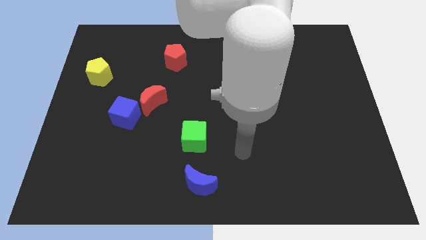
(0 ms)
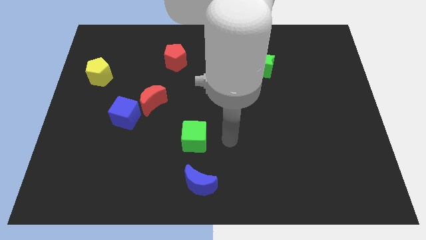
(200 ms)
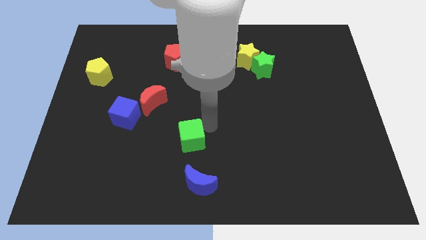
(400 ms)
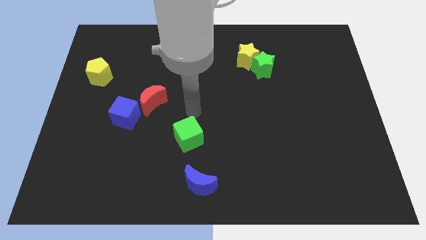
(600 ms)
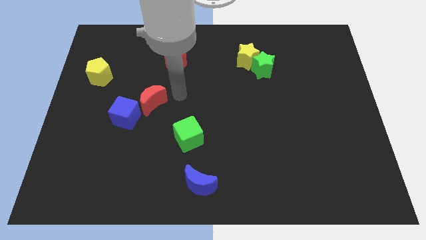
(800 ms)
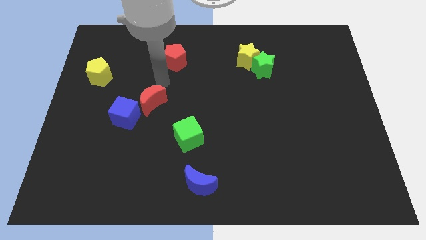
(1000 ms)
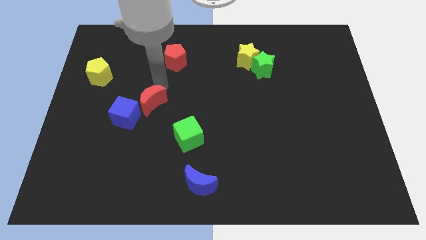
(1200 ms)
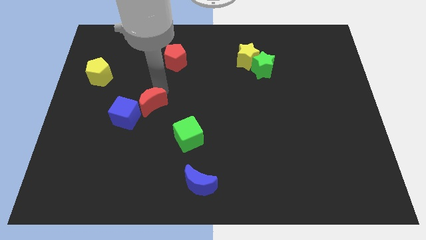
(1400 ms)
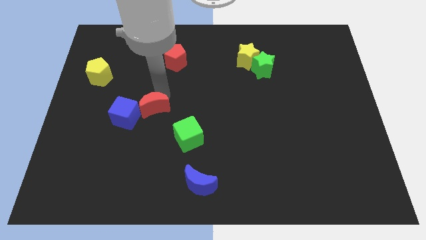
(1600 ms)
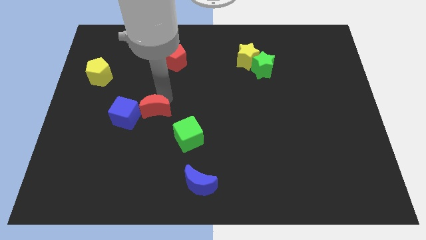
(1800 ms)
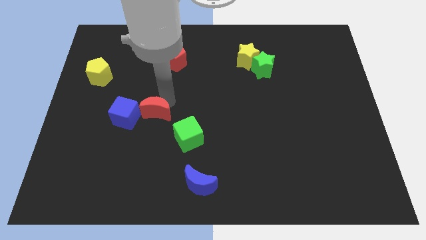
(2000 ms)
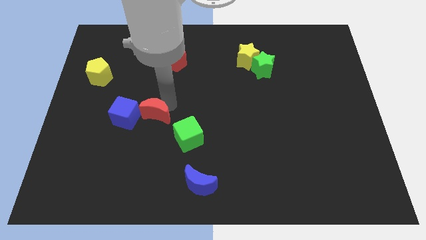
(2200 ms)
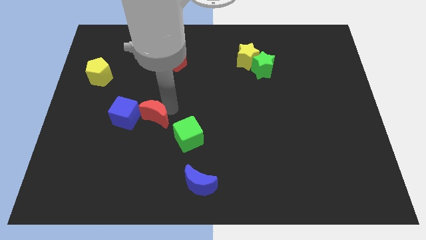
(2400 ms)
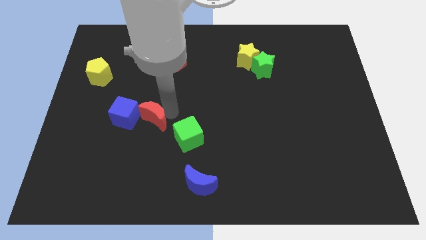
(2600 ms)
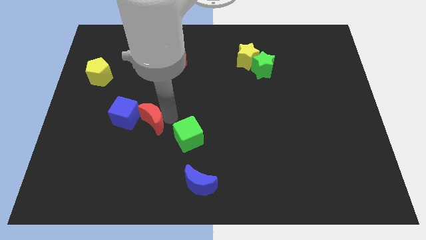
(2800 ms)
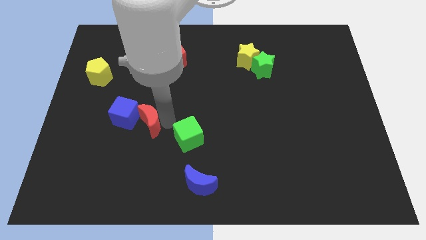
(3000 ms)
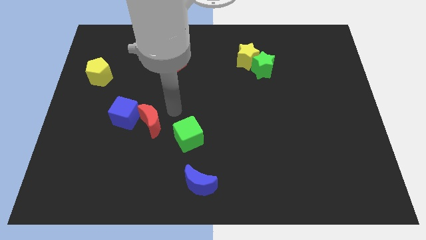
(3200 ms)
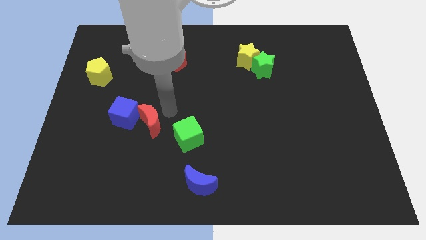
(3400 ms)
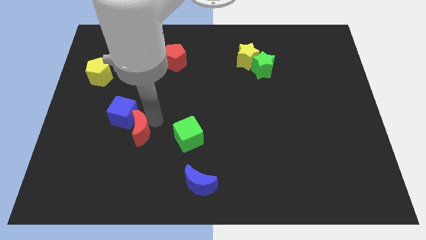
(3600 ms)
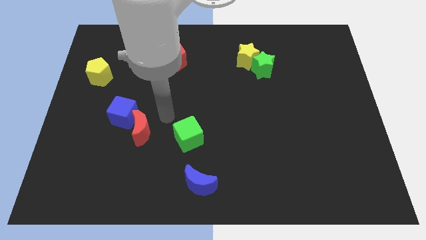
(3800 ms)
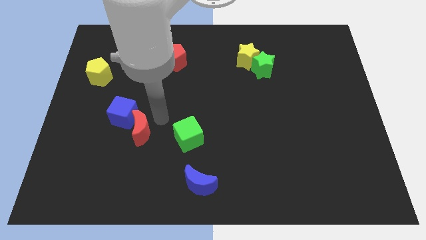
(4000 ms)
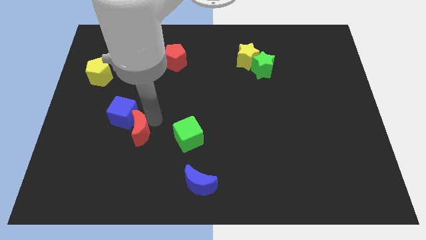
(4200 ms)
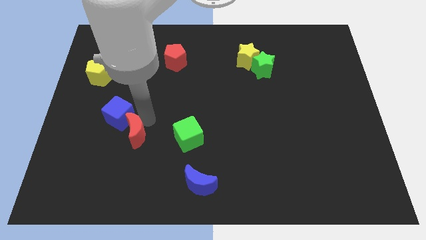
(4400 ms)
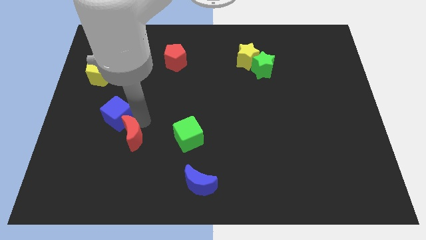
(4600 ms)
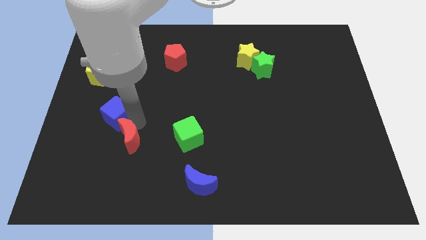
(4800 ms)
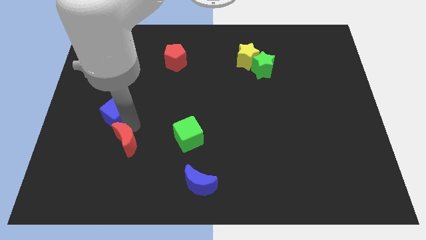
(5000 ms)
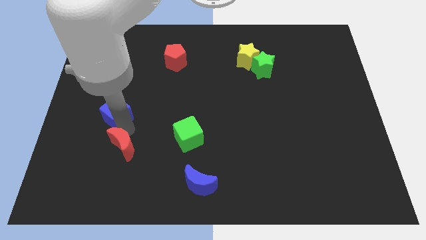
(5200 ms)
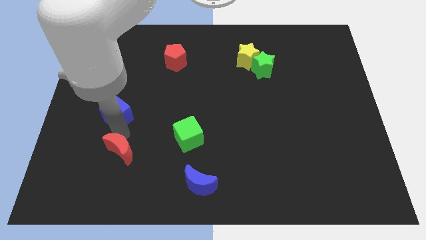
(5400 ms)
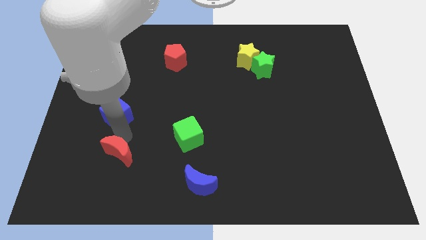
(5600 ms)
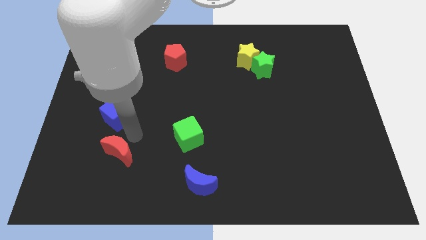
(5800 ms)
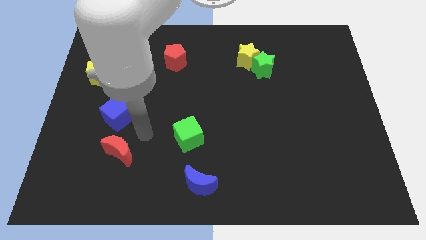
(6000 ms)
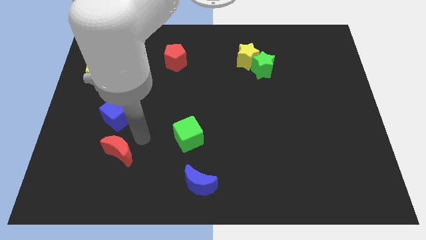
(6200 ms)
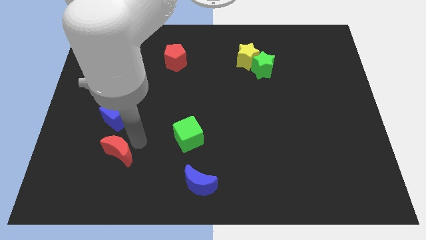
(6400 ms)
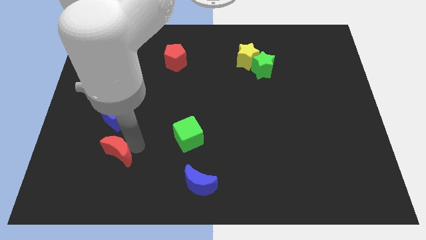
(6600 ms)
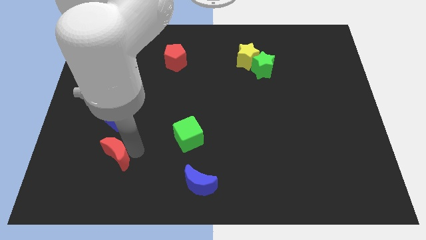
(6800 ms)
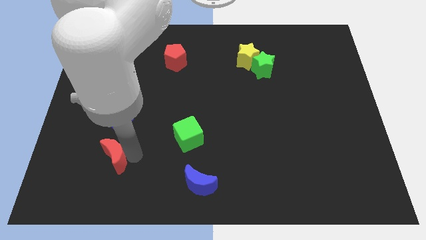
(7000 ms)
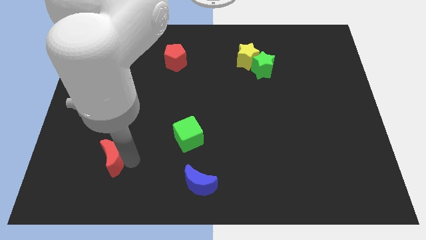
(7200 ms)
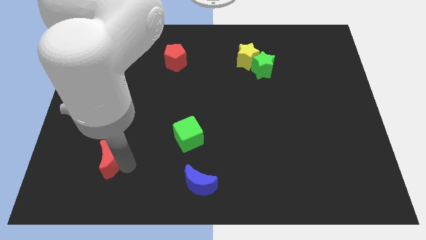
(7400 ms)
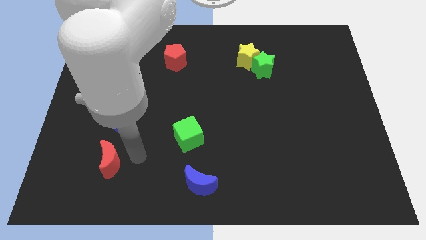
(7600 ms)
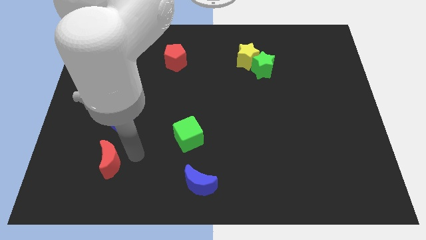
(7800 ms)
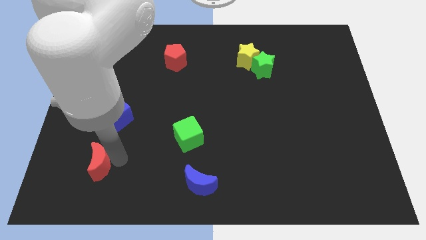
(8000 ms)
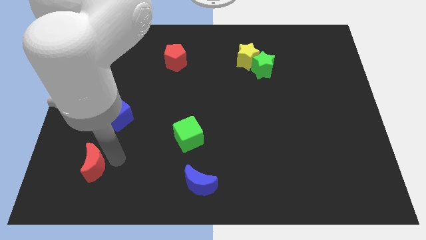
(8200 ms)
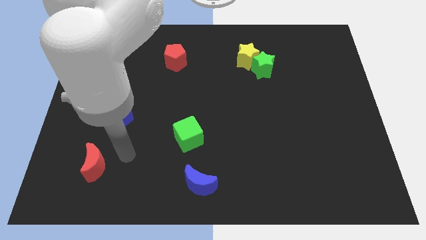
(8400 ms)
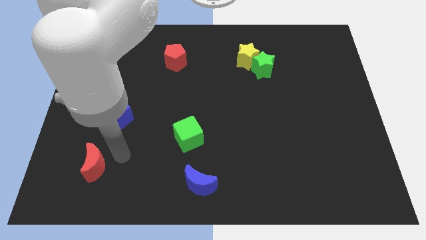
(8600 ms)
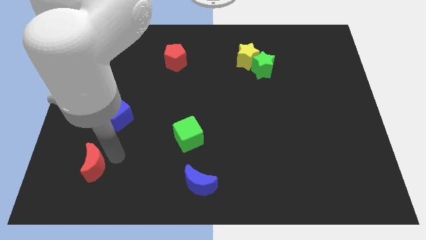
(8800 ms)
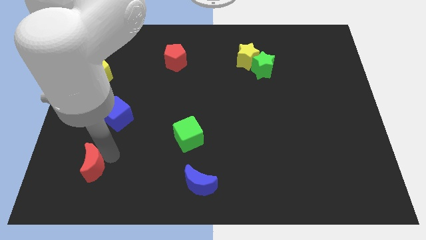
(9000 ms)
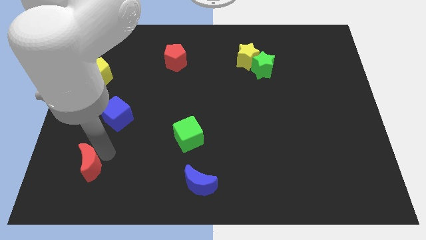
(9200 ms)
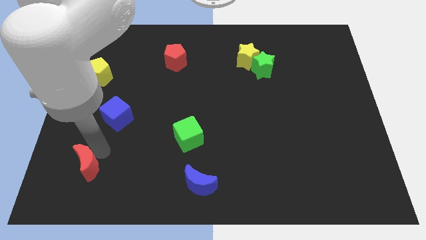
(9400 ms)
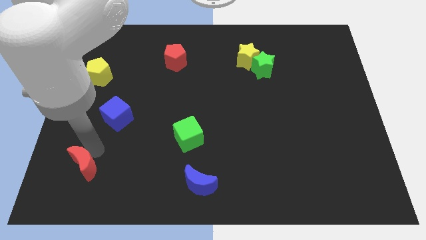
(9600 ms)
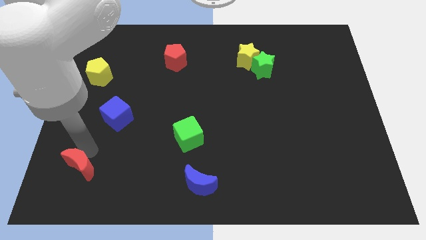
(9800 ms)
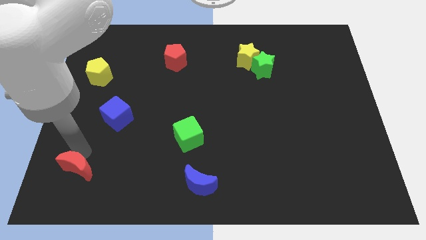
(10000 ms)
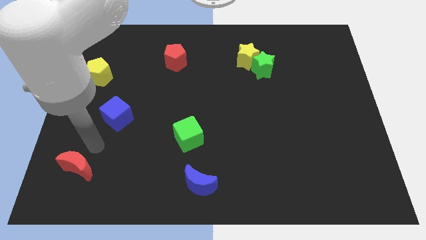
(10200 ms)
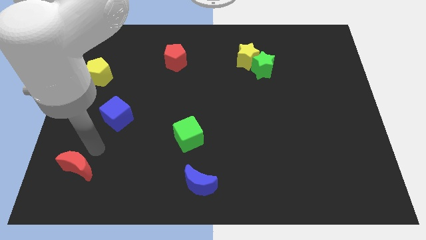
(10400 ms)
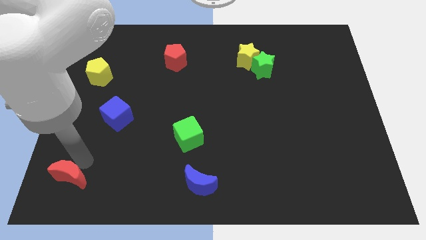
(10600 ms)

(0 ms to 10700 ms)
put the red moon to the lower left corner
